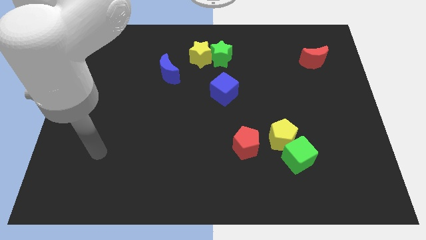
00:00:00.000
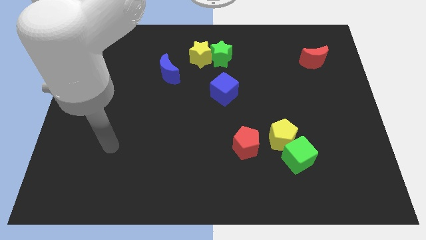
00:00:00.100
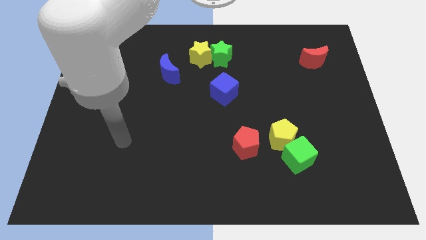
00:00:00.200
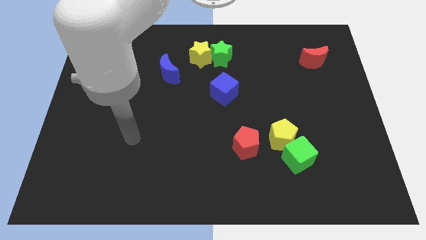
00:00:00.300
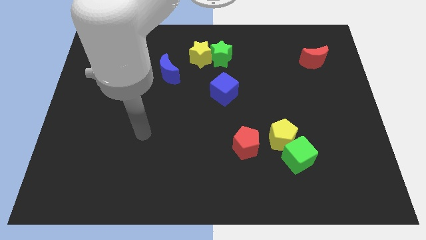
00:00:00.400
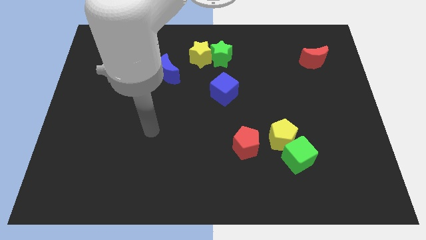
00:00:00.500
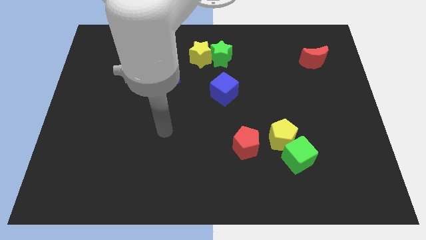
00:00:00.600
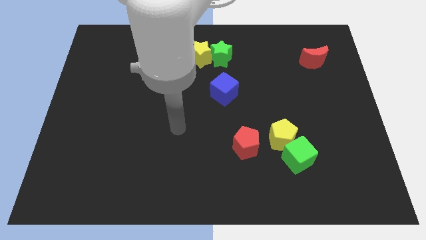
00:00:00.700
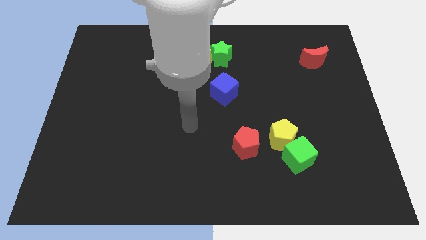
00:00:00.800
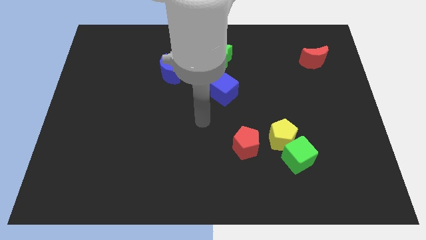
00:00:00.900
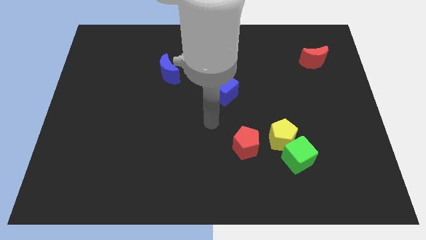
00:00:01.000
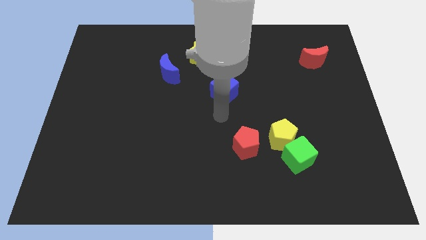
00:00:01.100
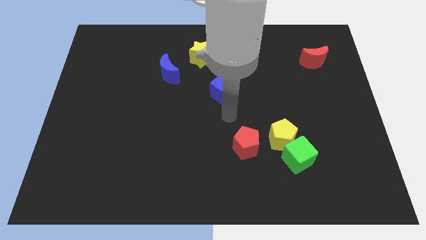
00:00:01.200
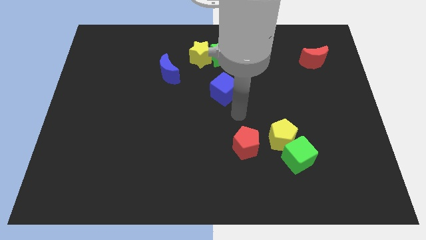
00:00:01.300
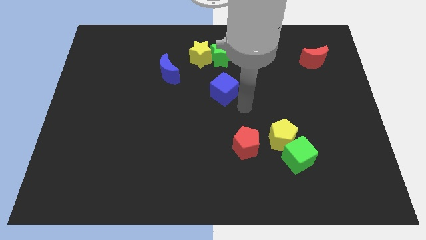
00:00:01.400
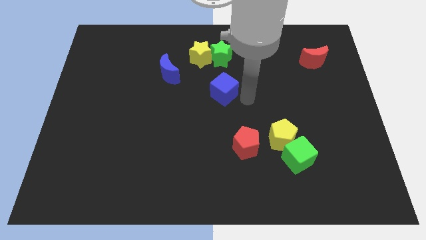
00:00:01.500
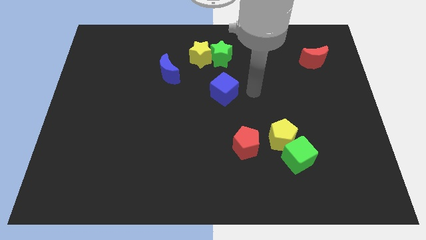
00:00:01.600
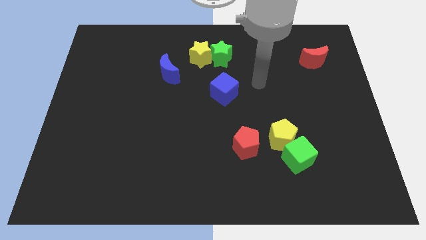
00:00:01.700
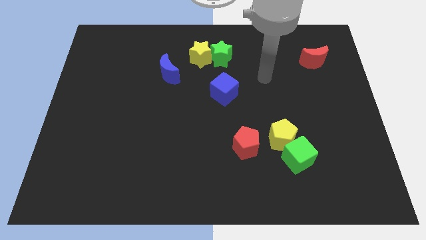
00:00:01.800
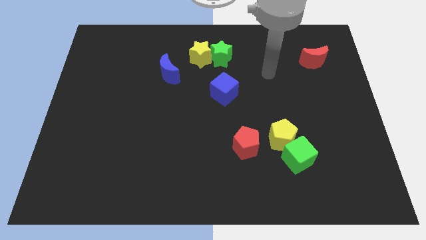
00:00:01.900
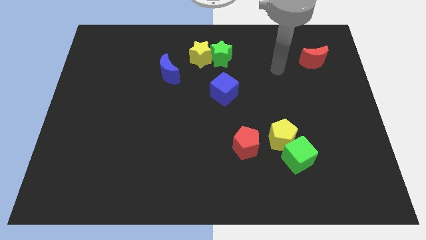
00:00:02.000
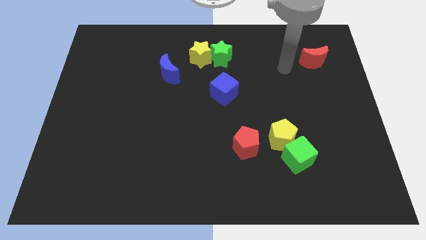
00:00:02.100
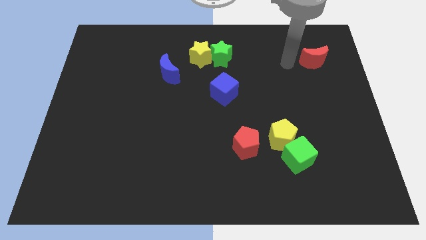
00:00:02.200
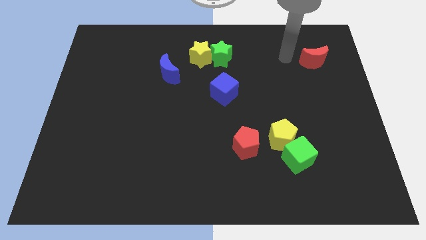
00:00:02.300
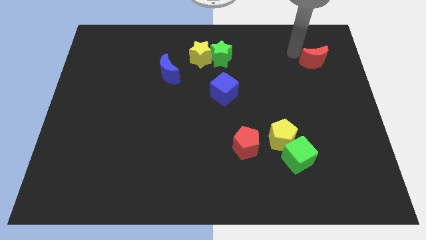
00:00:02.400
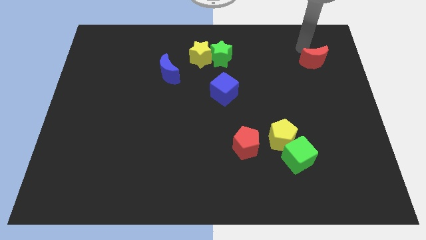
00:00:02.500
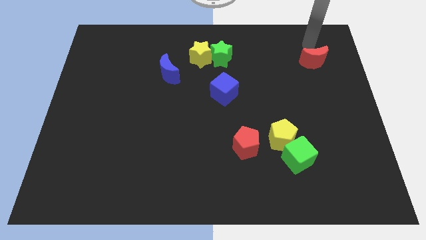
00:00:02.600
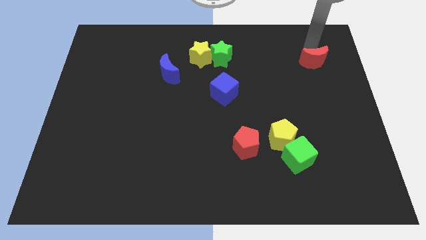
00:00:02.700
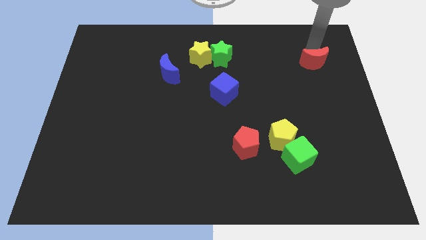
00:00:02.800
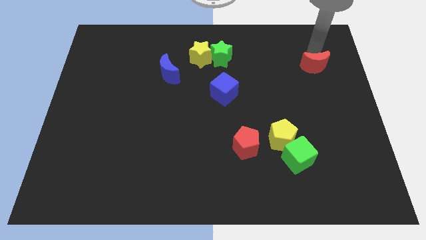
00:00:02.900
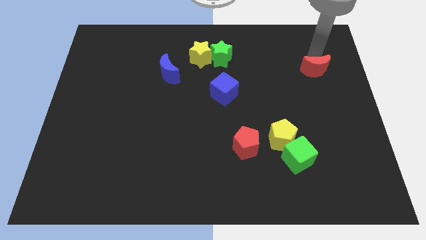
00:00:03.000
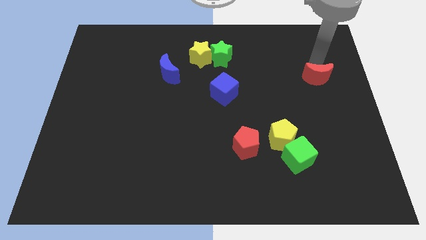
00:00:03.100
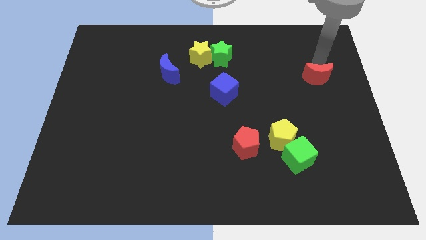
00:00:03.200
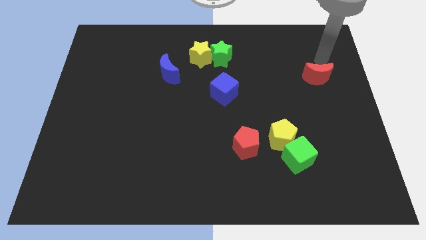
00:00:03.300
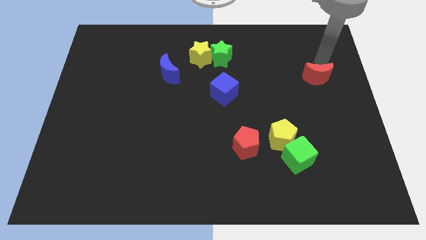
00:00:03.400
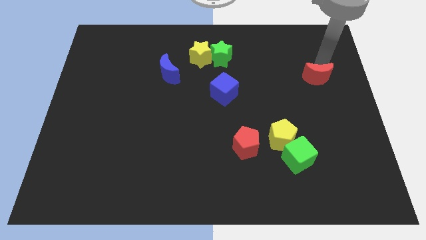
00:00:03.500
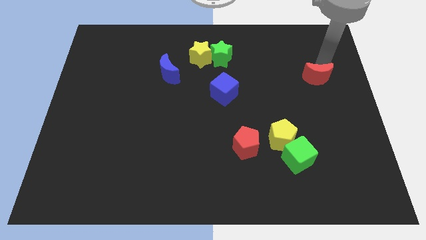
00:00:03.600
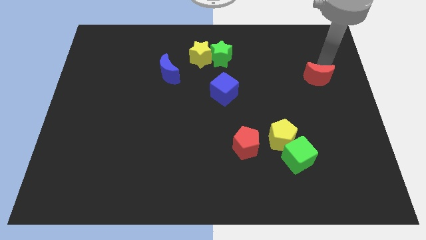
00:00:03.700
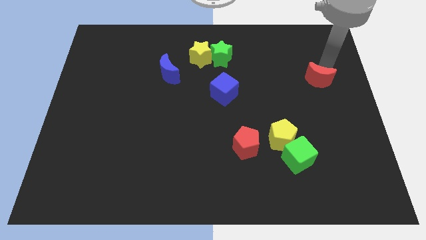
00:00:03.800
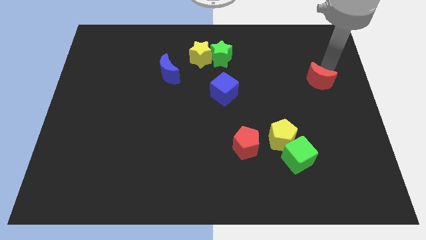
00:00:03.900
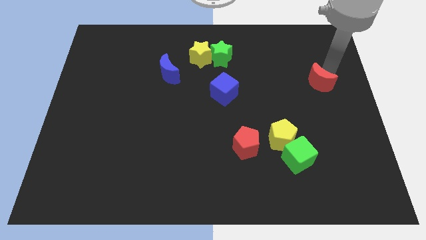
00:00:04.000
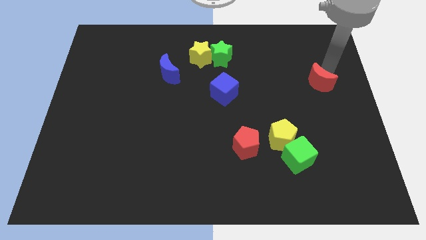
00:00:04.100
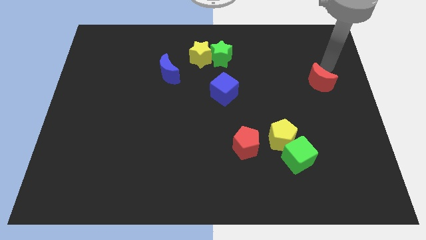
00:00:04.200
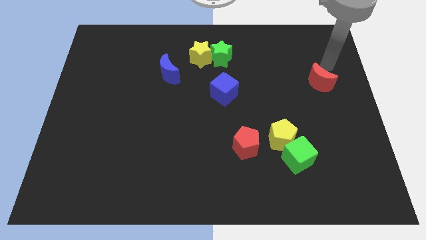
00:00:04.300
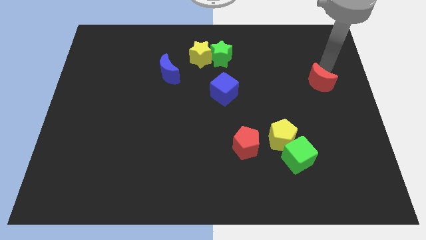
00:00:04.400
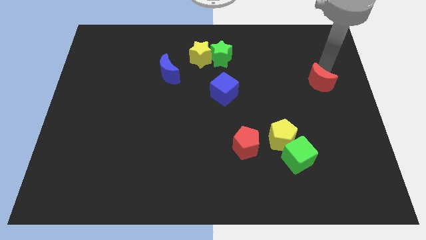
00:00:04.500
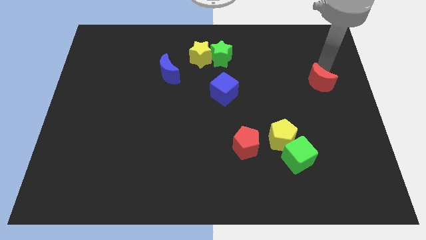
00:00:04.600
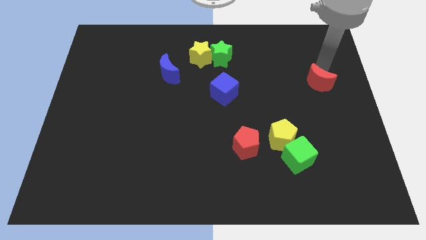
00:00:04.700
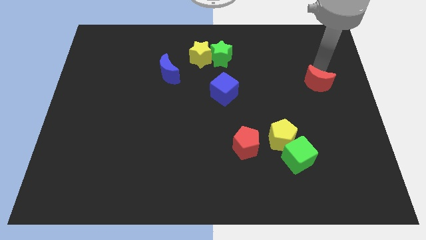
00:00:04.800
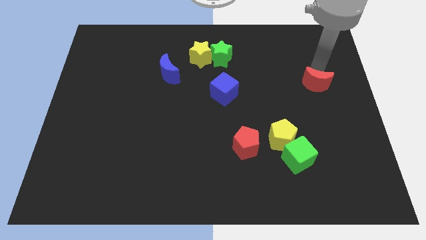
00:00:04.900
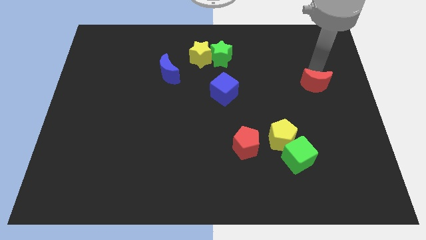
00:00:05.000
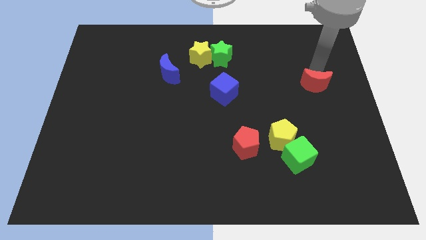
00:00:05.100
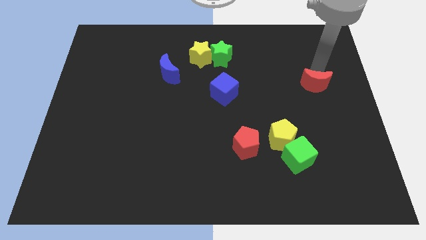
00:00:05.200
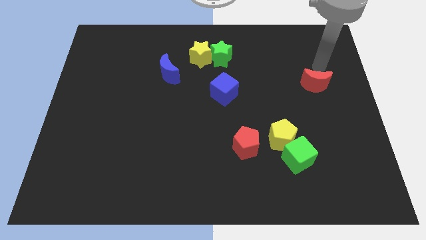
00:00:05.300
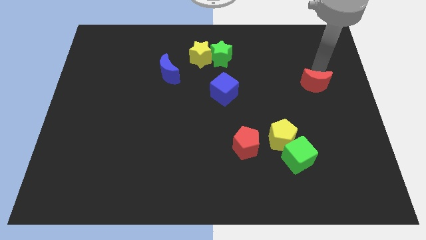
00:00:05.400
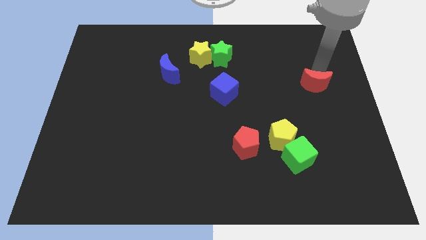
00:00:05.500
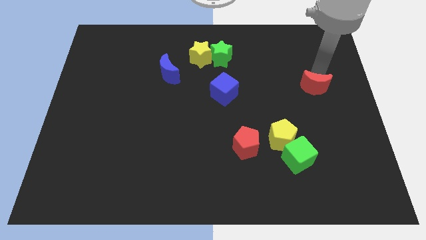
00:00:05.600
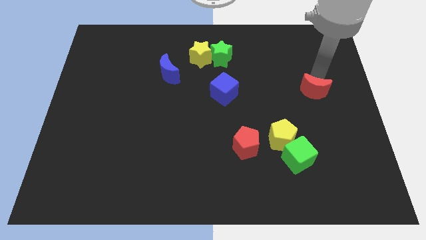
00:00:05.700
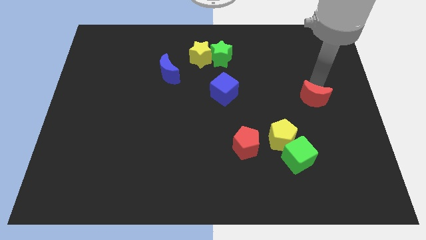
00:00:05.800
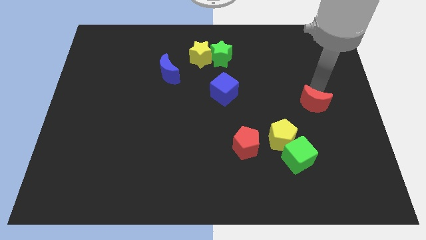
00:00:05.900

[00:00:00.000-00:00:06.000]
move the red moon diagonally up and to the right of the yellow pentagon
